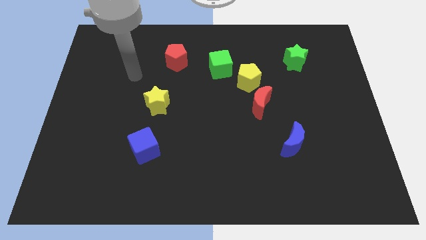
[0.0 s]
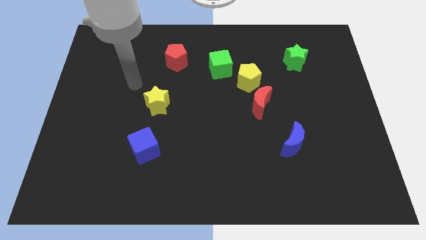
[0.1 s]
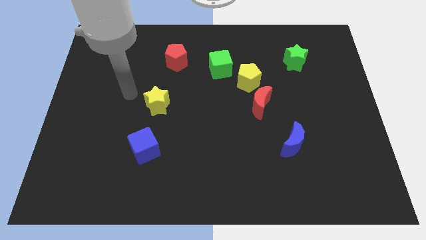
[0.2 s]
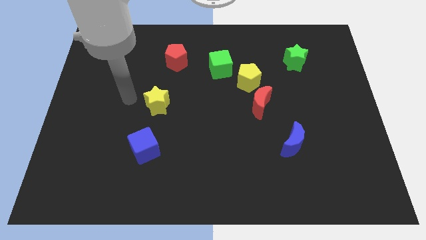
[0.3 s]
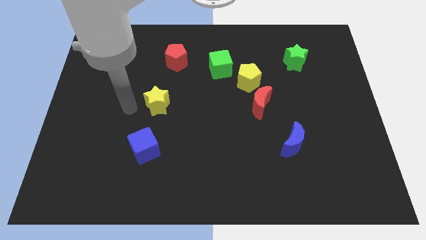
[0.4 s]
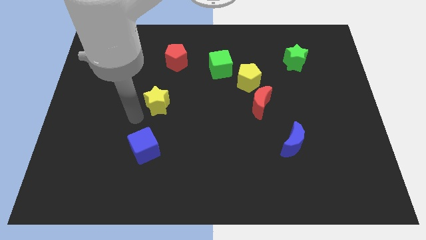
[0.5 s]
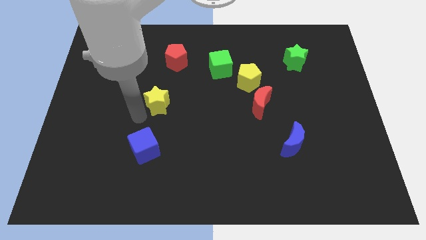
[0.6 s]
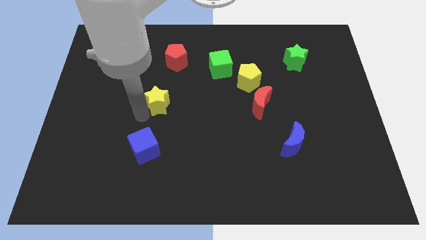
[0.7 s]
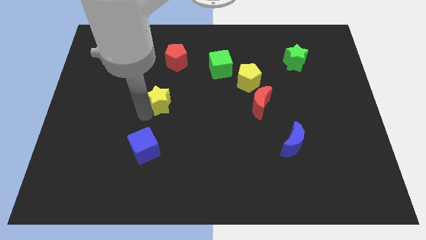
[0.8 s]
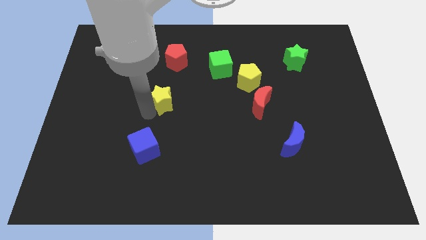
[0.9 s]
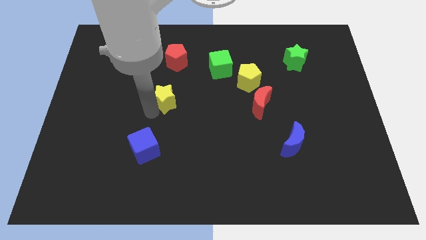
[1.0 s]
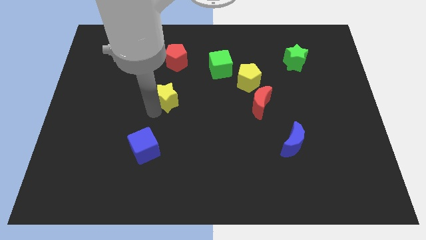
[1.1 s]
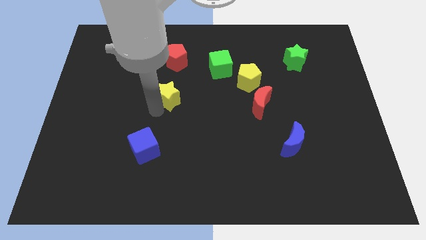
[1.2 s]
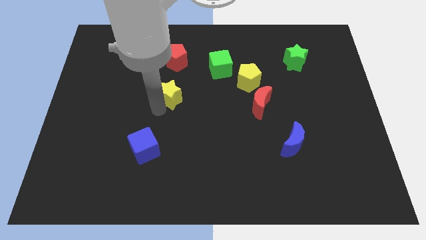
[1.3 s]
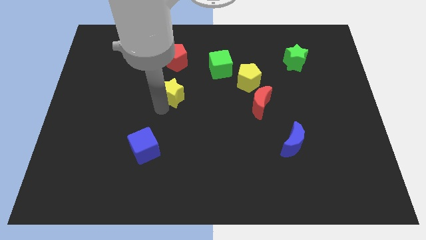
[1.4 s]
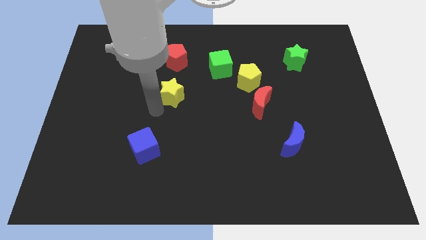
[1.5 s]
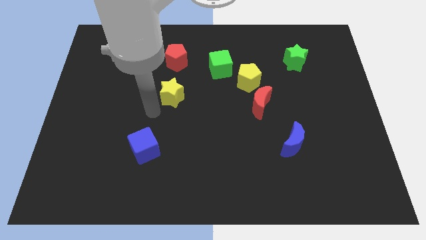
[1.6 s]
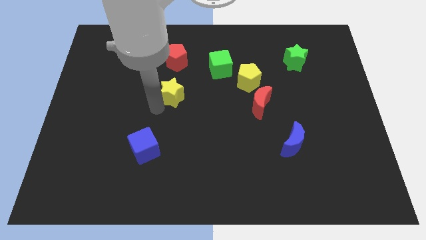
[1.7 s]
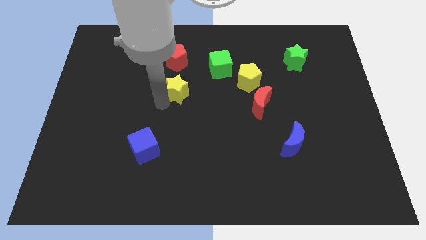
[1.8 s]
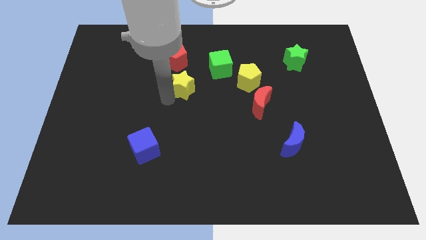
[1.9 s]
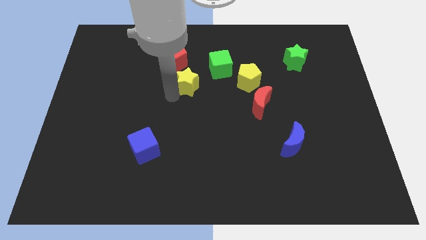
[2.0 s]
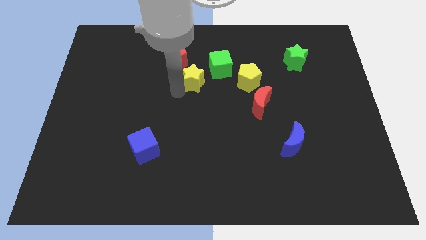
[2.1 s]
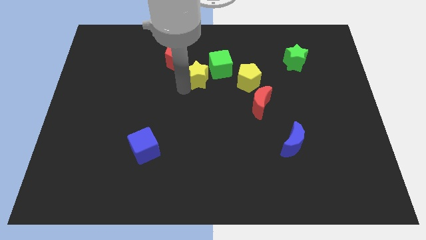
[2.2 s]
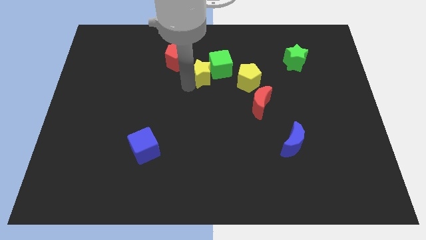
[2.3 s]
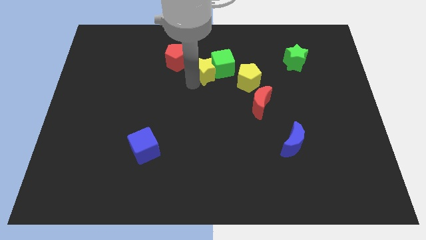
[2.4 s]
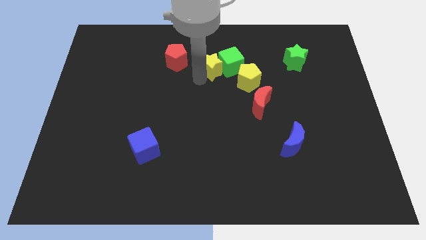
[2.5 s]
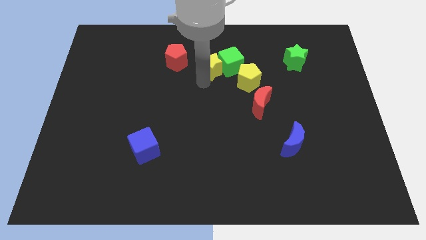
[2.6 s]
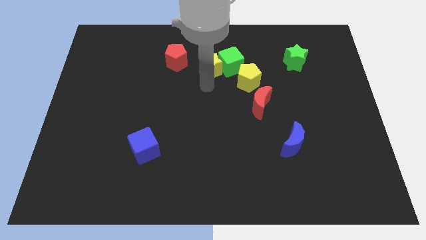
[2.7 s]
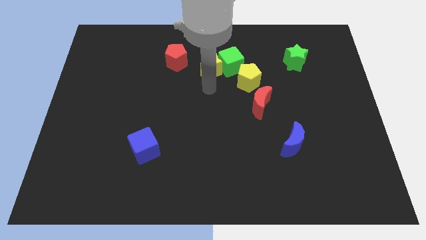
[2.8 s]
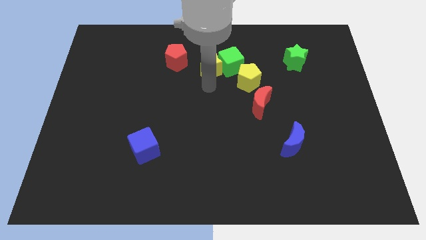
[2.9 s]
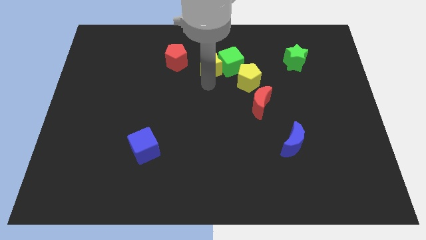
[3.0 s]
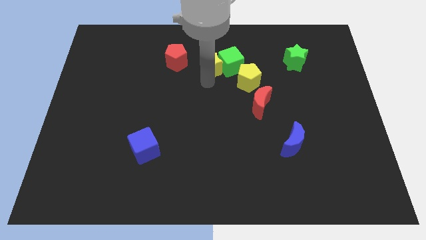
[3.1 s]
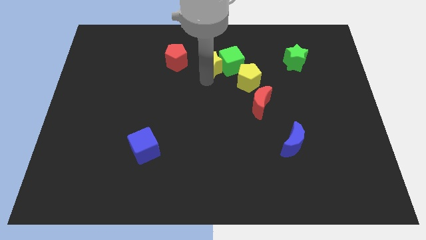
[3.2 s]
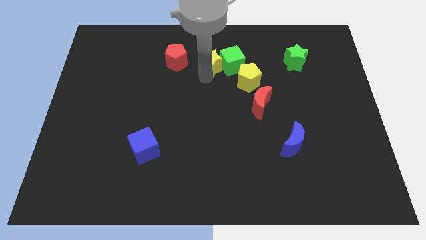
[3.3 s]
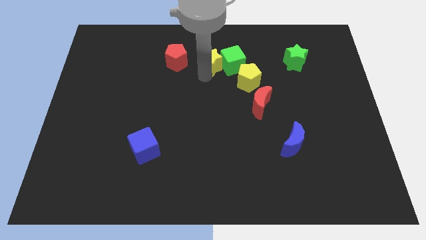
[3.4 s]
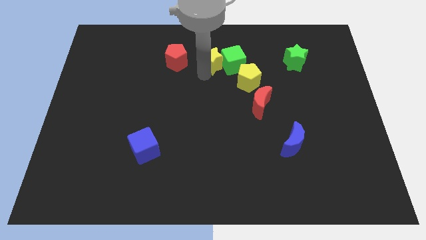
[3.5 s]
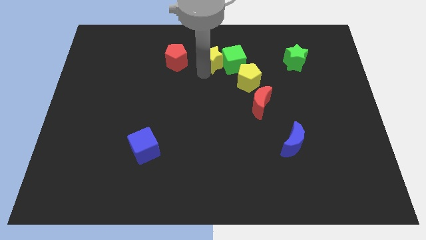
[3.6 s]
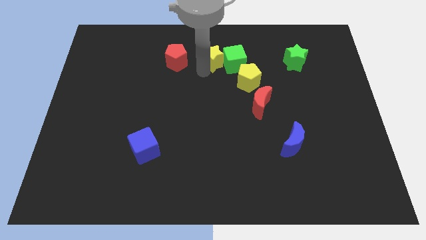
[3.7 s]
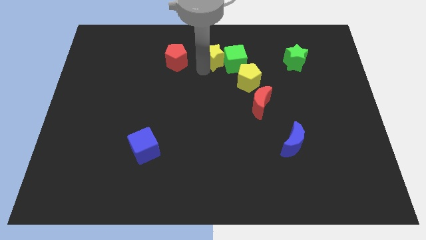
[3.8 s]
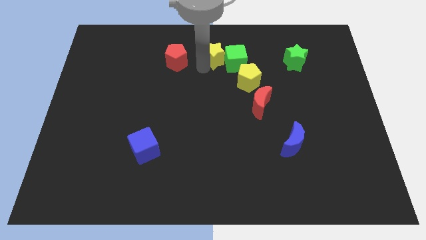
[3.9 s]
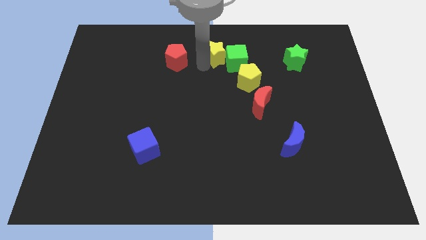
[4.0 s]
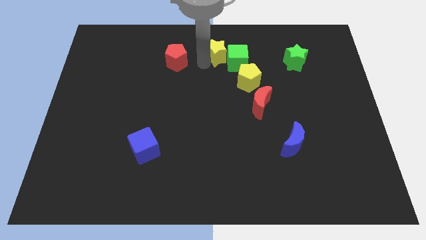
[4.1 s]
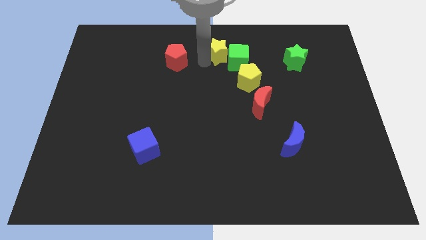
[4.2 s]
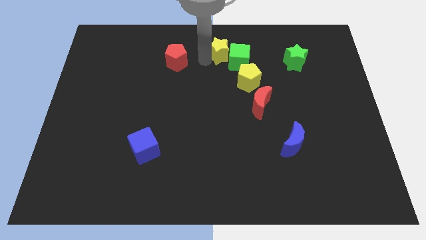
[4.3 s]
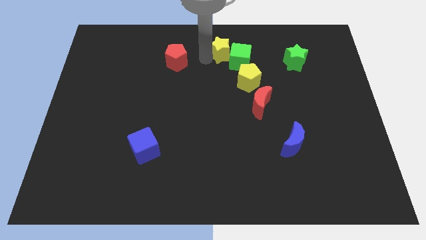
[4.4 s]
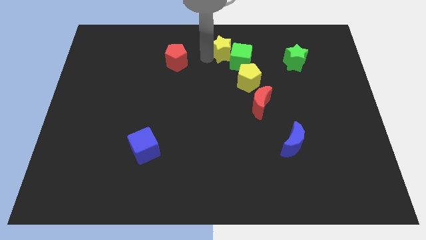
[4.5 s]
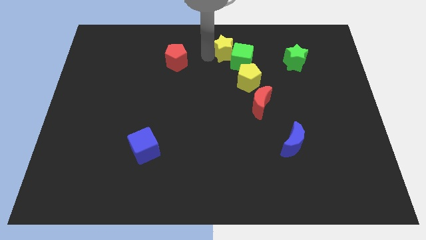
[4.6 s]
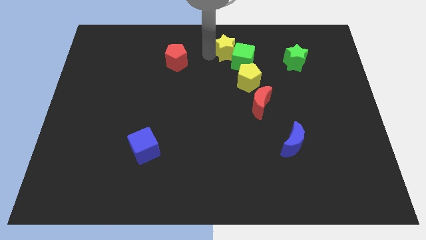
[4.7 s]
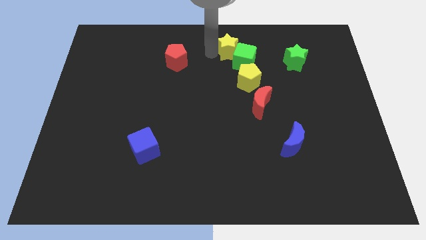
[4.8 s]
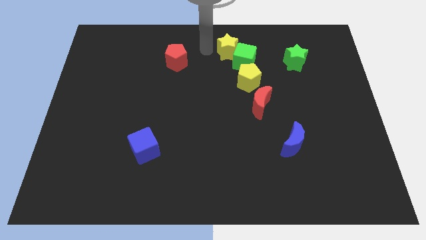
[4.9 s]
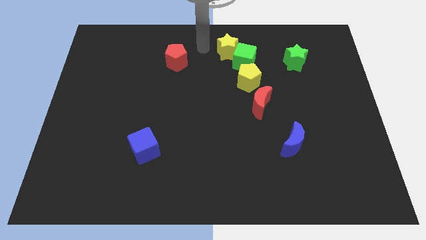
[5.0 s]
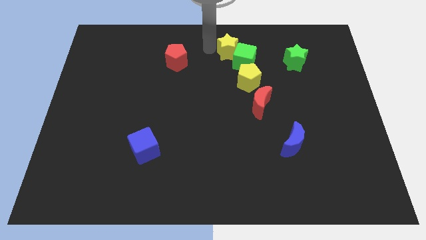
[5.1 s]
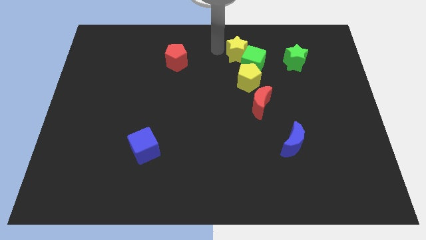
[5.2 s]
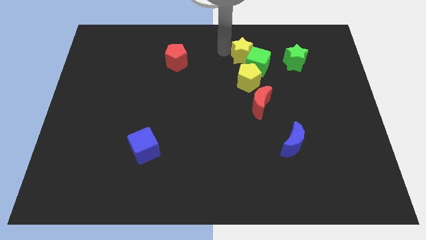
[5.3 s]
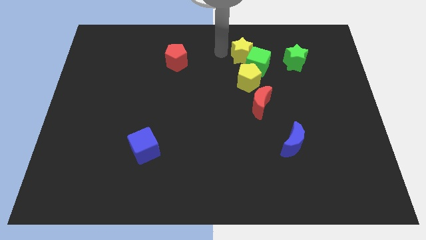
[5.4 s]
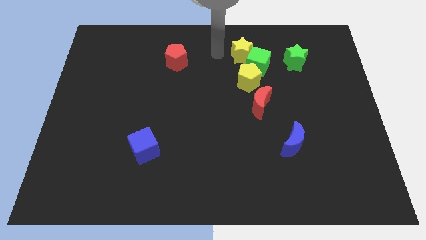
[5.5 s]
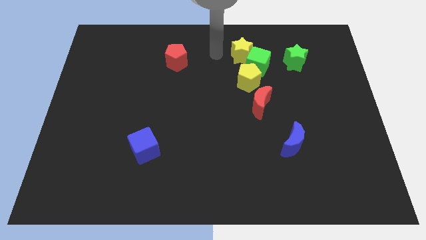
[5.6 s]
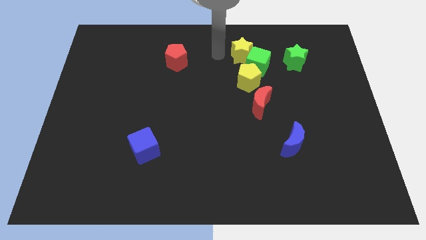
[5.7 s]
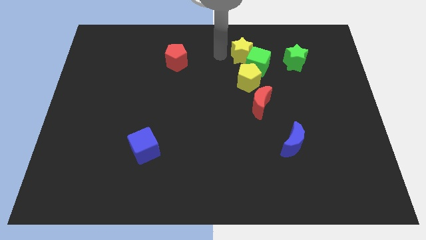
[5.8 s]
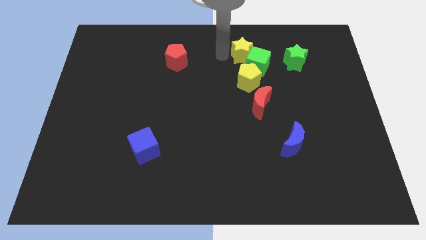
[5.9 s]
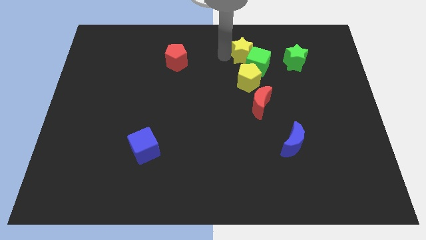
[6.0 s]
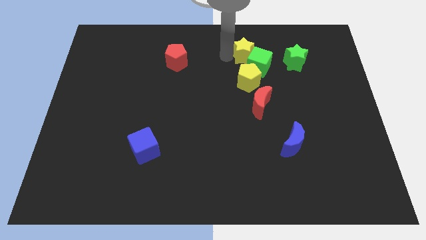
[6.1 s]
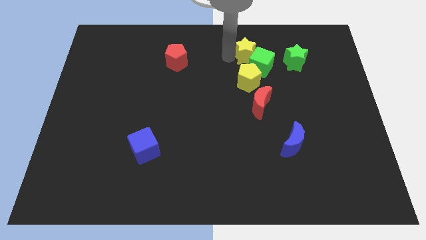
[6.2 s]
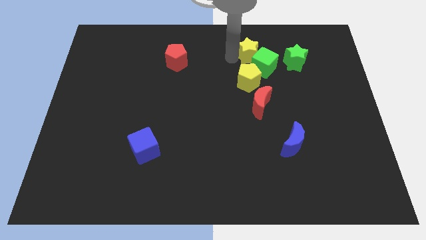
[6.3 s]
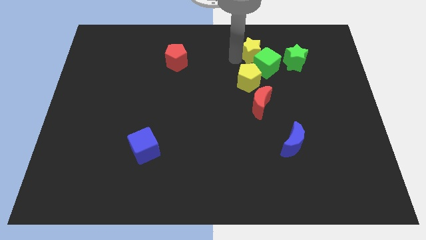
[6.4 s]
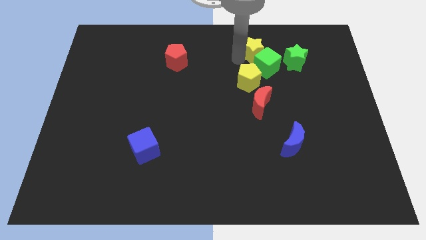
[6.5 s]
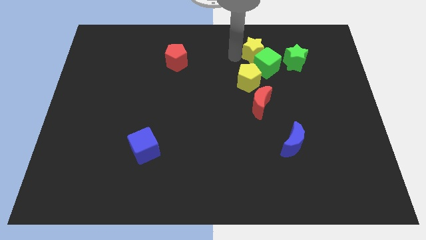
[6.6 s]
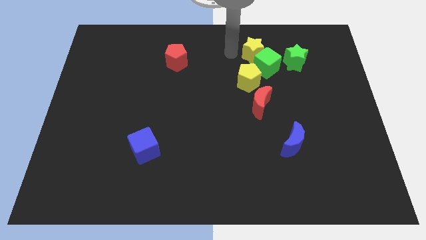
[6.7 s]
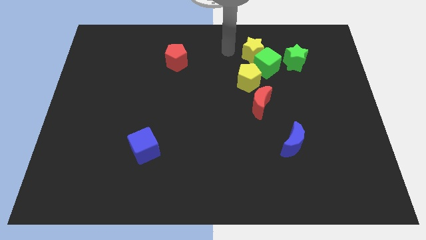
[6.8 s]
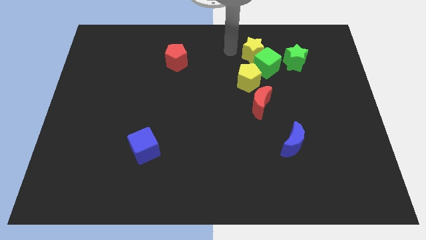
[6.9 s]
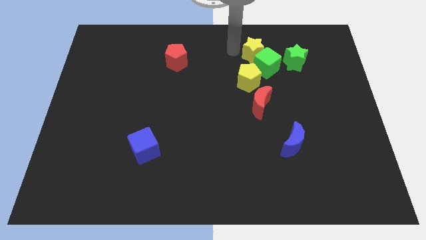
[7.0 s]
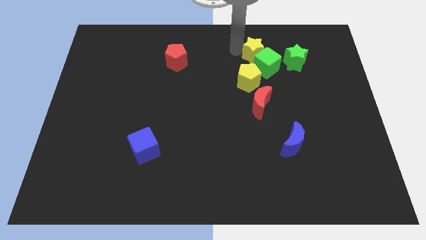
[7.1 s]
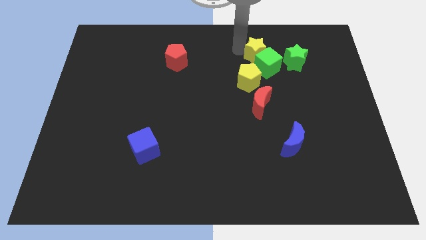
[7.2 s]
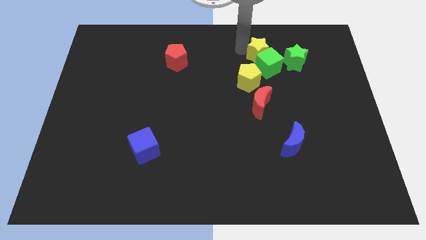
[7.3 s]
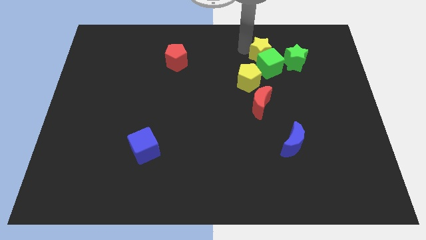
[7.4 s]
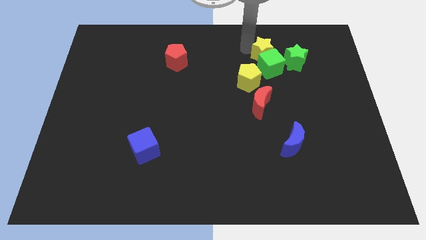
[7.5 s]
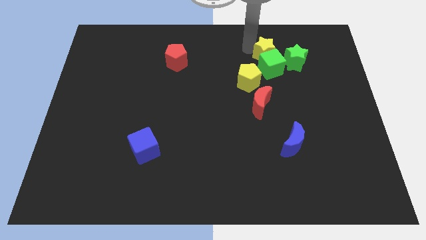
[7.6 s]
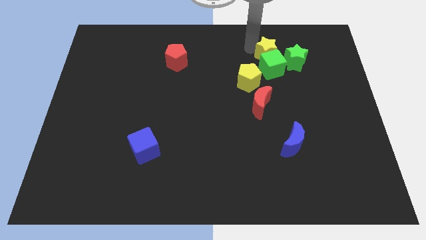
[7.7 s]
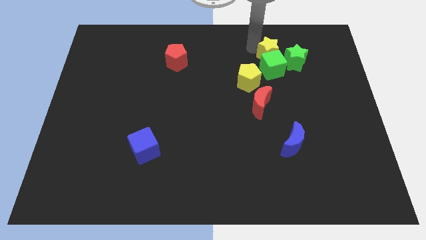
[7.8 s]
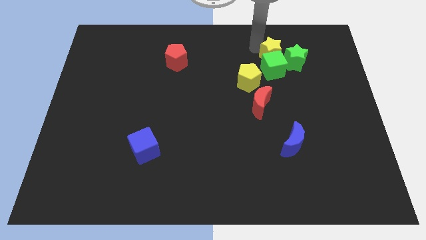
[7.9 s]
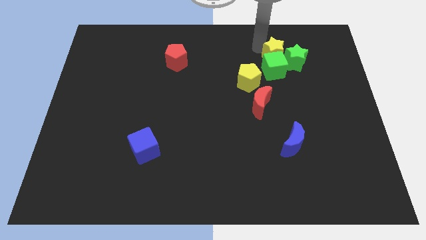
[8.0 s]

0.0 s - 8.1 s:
move the yellow star to the green star
